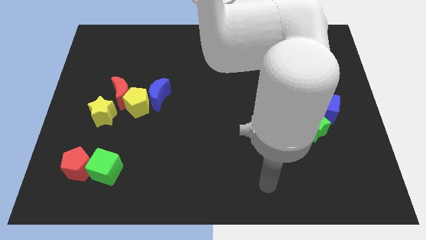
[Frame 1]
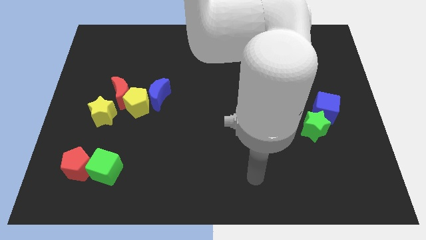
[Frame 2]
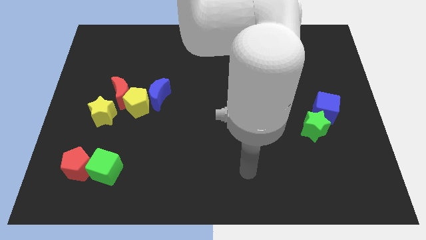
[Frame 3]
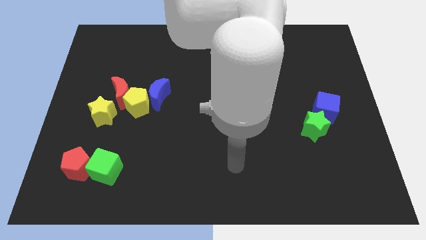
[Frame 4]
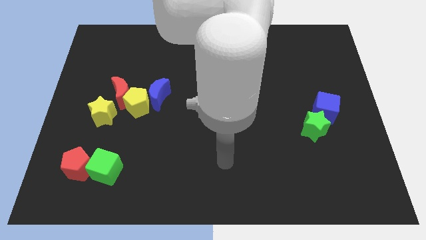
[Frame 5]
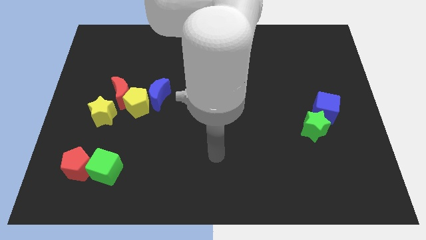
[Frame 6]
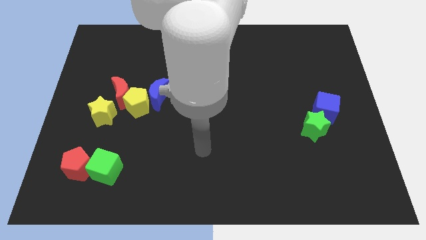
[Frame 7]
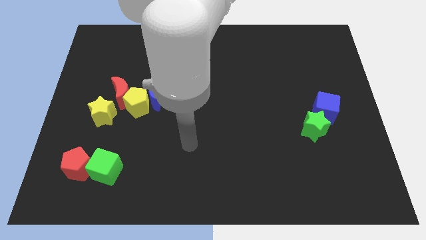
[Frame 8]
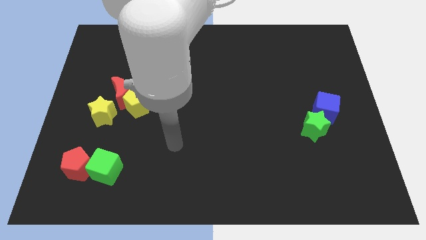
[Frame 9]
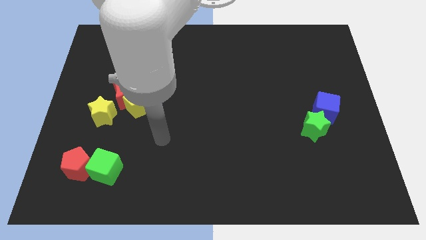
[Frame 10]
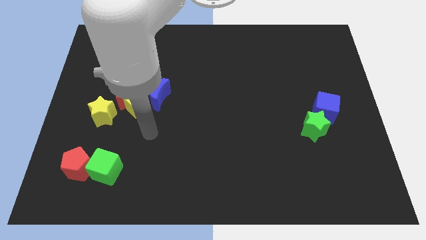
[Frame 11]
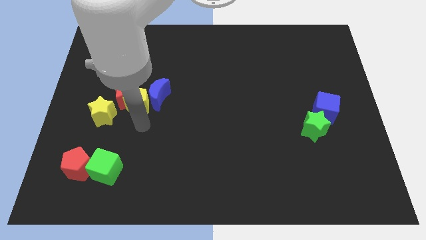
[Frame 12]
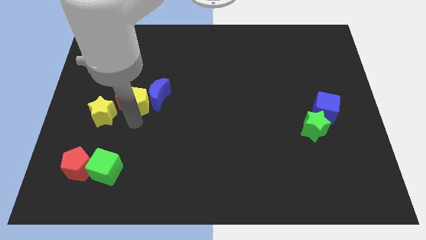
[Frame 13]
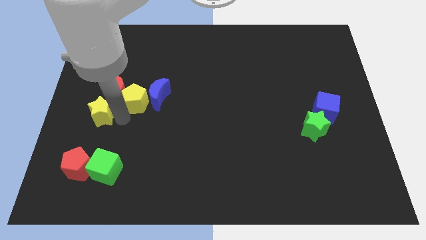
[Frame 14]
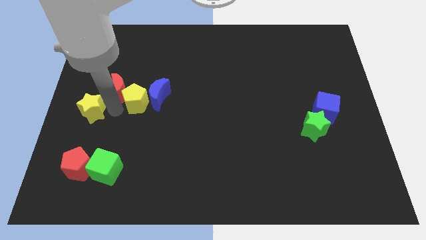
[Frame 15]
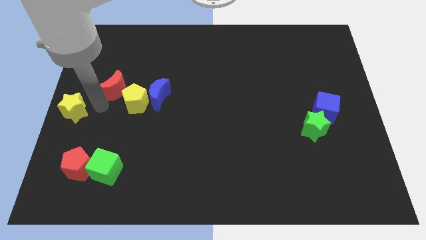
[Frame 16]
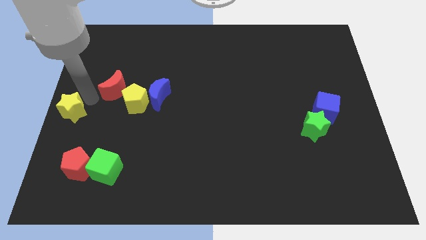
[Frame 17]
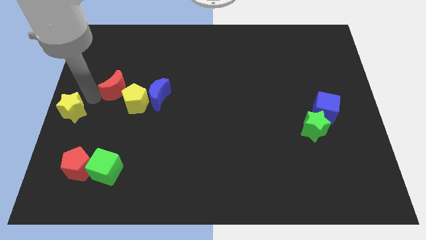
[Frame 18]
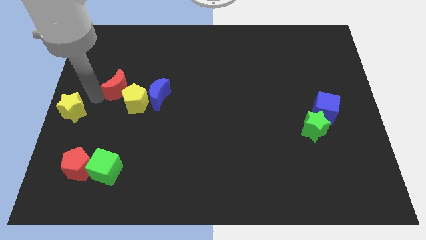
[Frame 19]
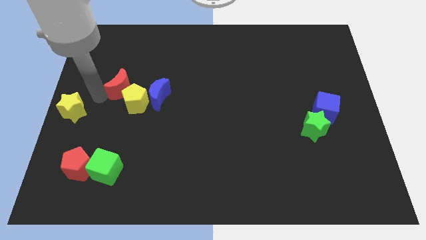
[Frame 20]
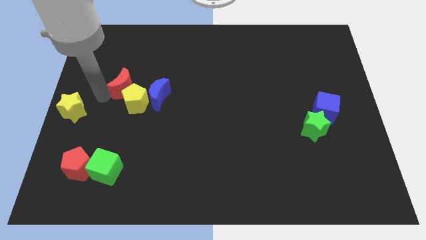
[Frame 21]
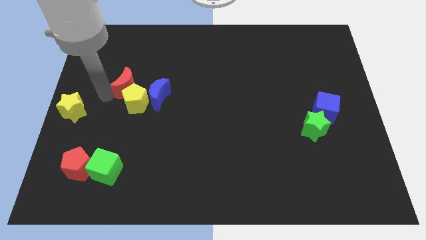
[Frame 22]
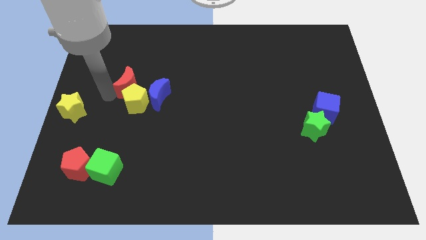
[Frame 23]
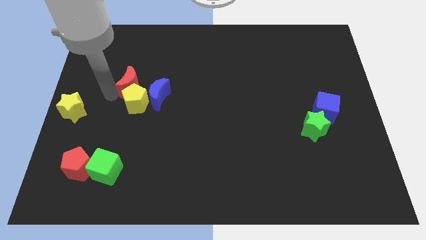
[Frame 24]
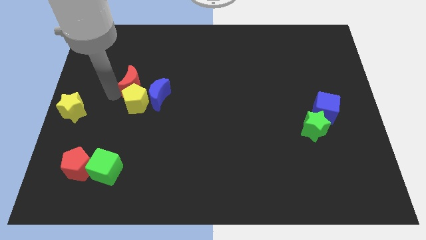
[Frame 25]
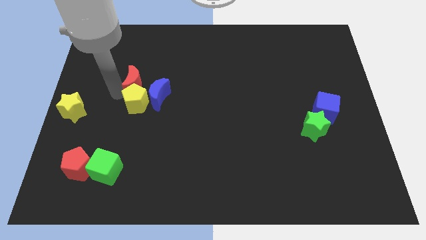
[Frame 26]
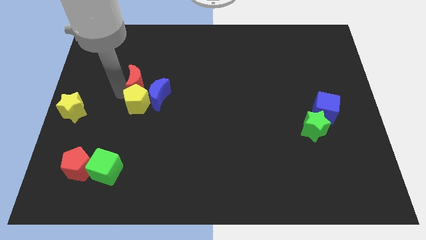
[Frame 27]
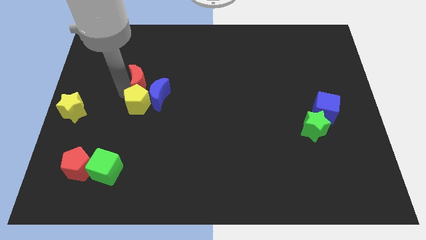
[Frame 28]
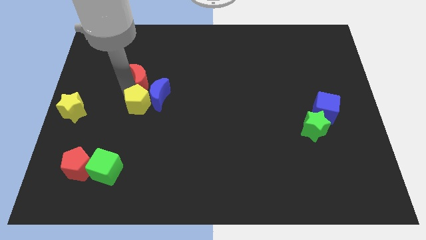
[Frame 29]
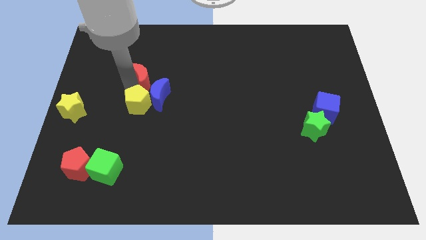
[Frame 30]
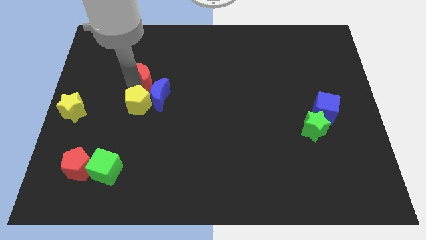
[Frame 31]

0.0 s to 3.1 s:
slide the red moon diagonally up and right a bit

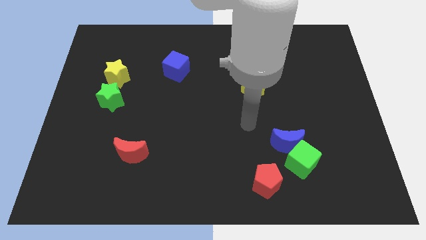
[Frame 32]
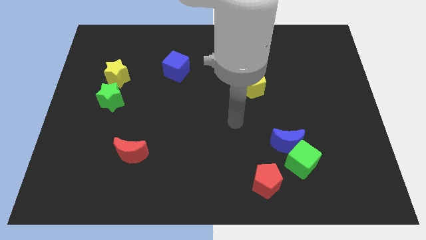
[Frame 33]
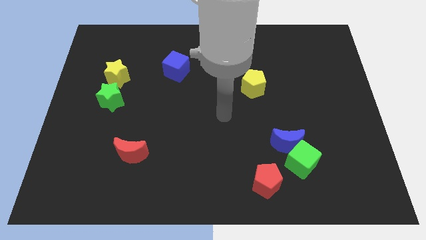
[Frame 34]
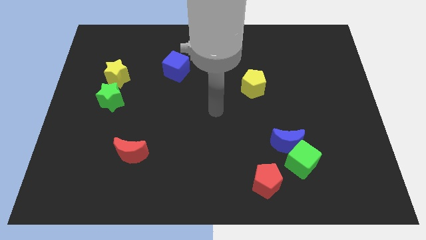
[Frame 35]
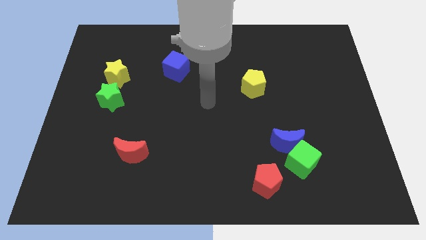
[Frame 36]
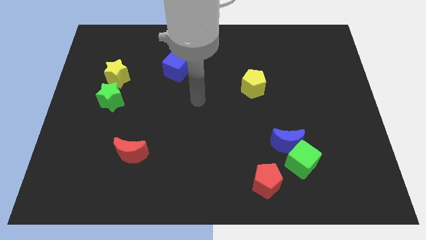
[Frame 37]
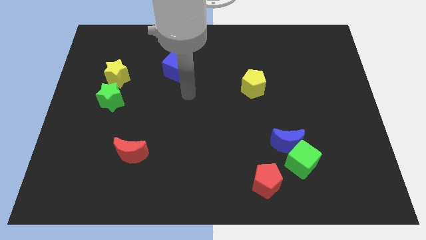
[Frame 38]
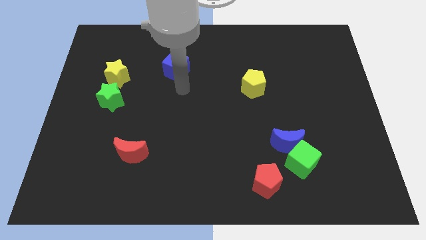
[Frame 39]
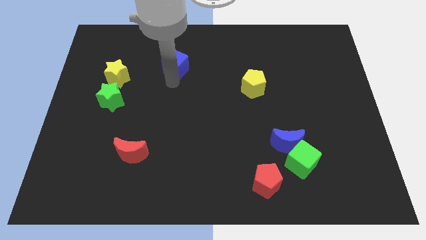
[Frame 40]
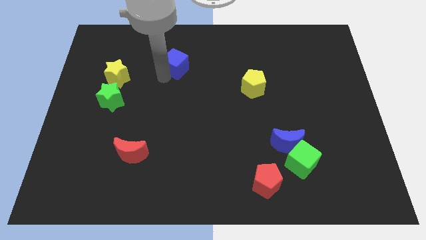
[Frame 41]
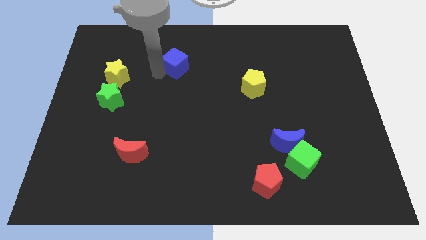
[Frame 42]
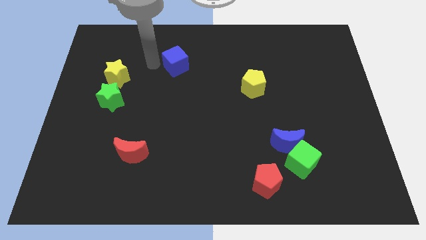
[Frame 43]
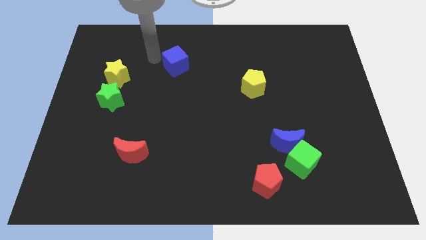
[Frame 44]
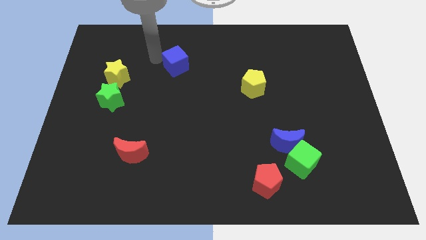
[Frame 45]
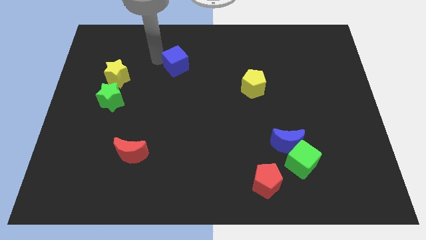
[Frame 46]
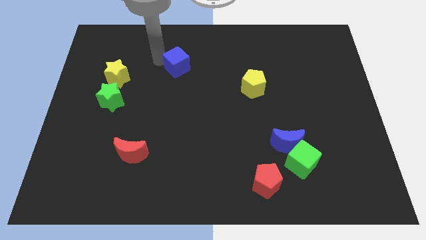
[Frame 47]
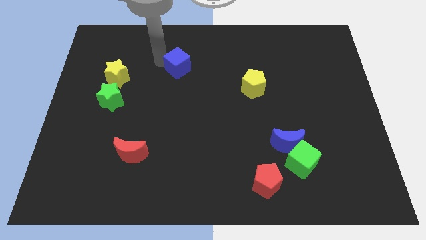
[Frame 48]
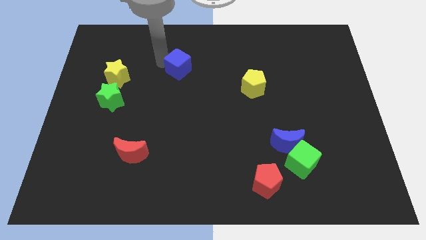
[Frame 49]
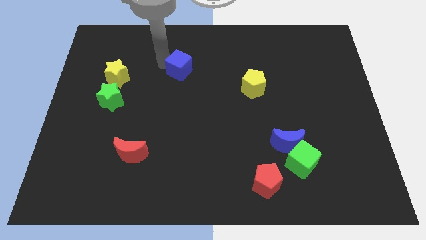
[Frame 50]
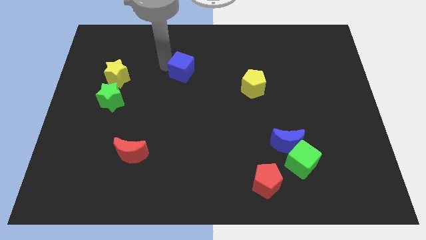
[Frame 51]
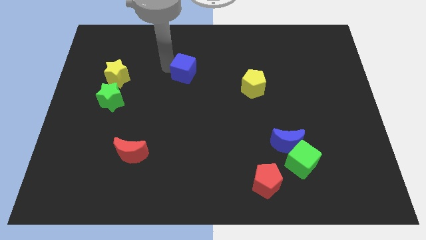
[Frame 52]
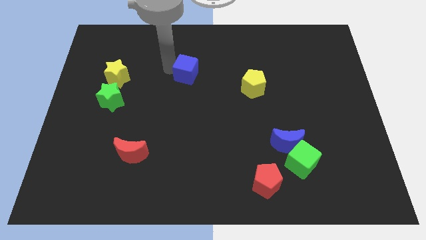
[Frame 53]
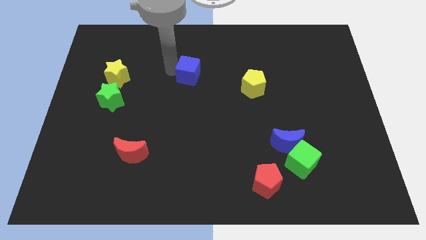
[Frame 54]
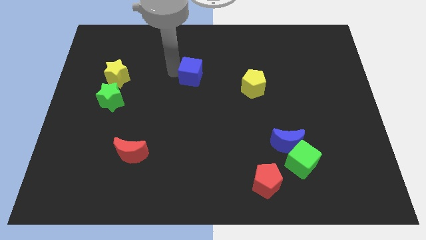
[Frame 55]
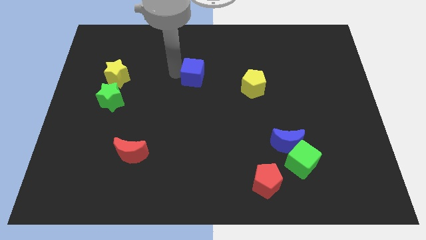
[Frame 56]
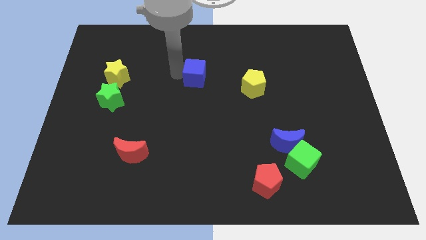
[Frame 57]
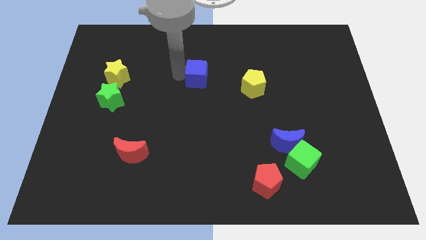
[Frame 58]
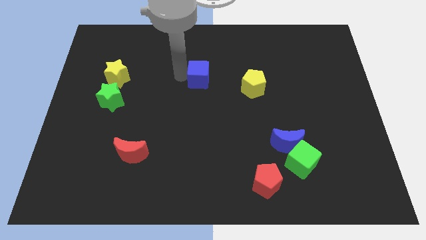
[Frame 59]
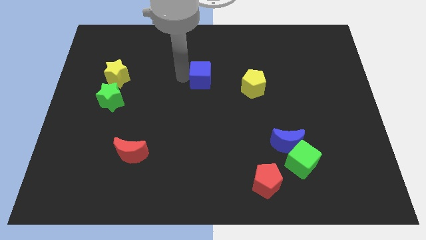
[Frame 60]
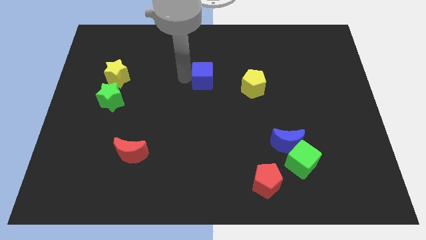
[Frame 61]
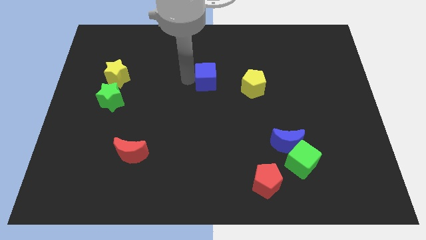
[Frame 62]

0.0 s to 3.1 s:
slide the blue cube right a bit

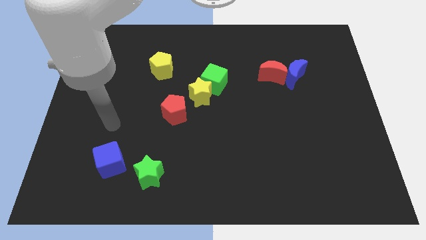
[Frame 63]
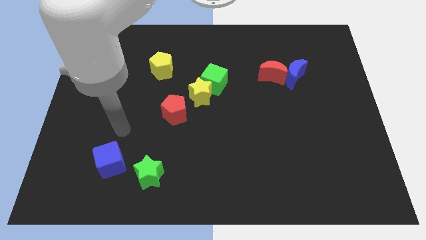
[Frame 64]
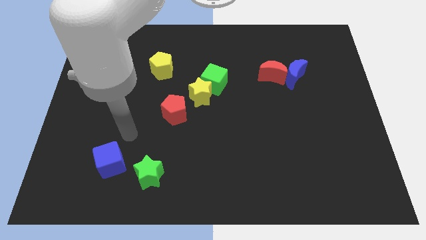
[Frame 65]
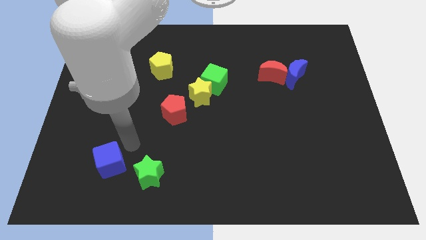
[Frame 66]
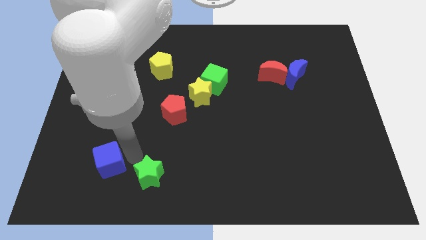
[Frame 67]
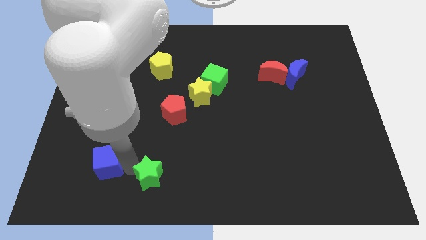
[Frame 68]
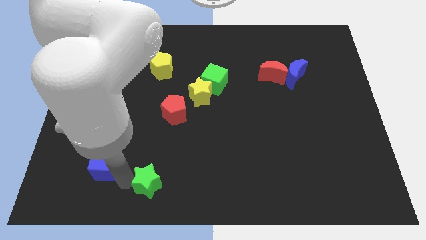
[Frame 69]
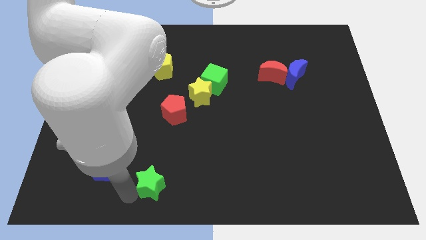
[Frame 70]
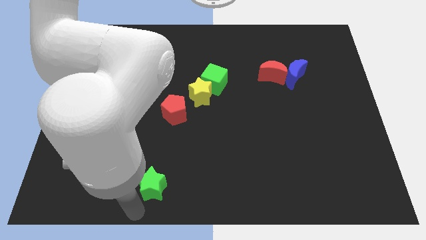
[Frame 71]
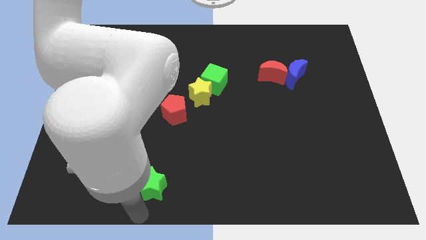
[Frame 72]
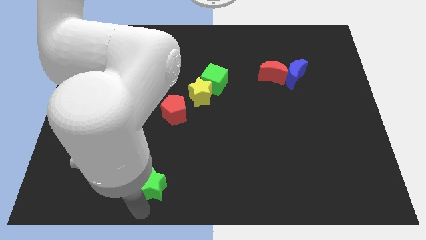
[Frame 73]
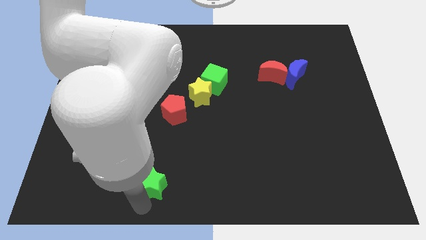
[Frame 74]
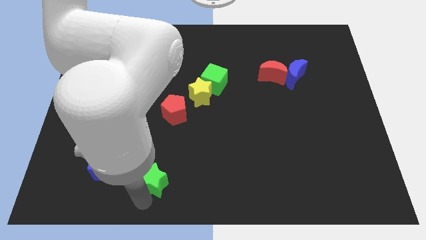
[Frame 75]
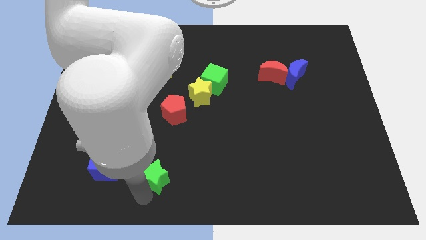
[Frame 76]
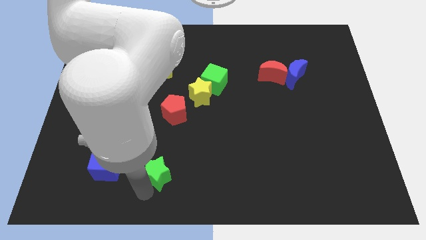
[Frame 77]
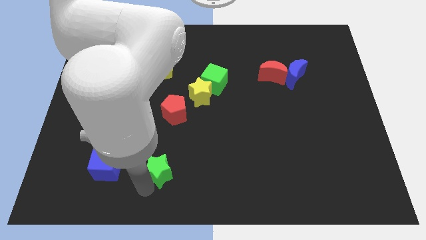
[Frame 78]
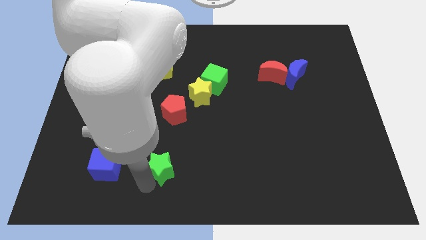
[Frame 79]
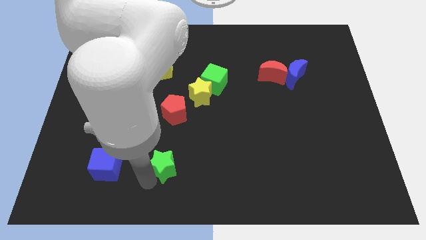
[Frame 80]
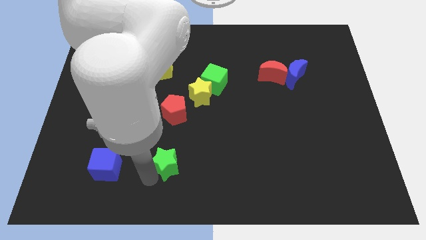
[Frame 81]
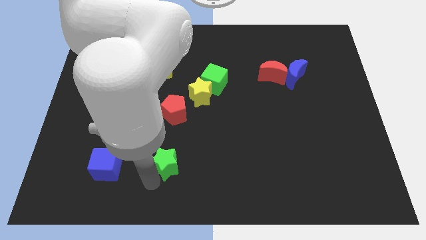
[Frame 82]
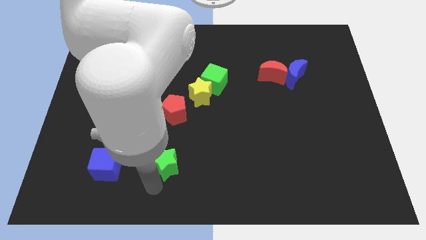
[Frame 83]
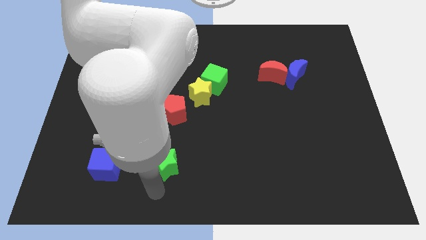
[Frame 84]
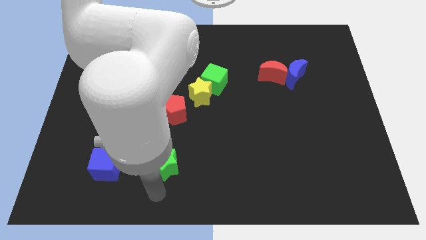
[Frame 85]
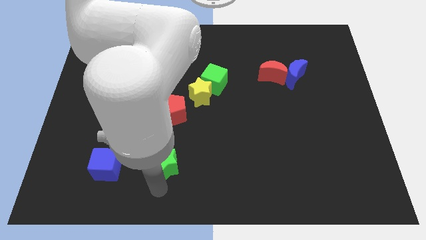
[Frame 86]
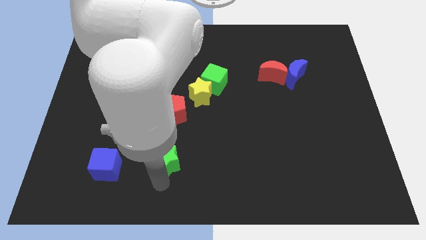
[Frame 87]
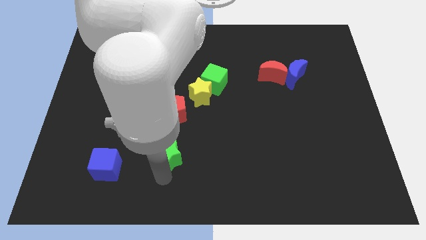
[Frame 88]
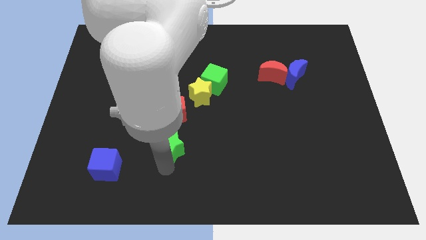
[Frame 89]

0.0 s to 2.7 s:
slightly slide the green star up and then right
